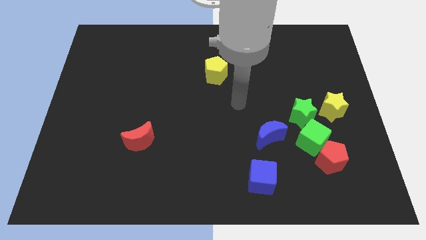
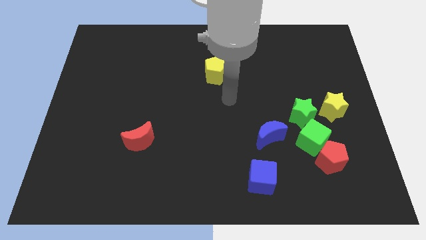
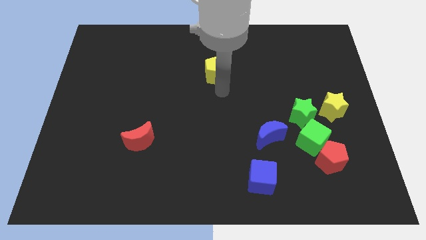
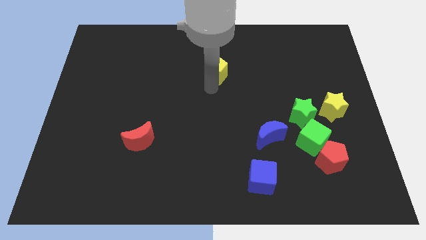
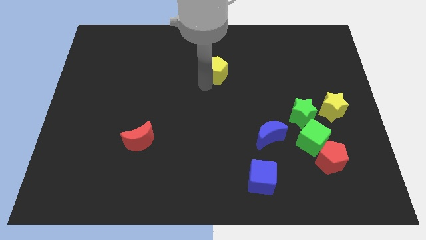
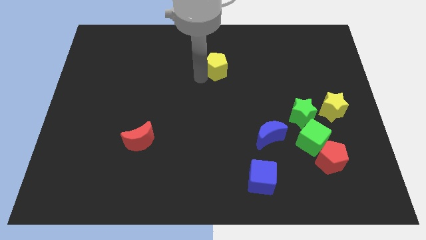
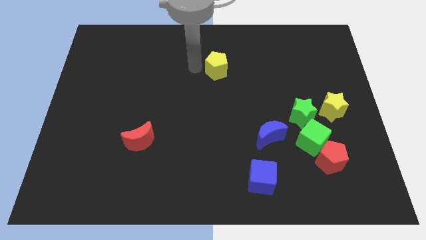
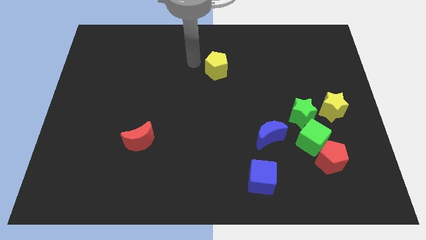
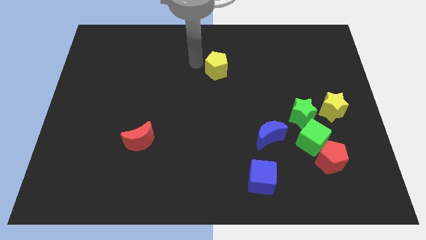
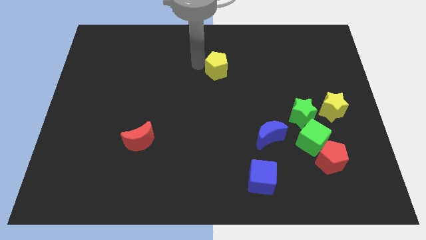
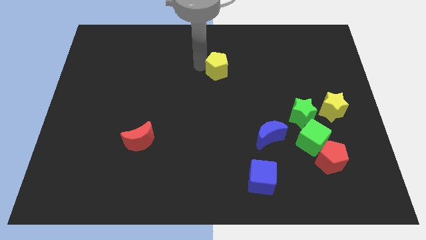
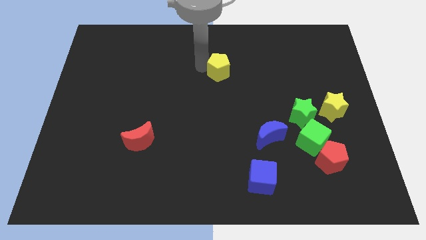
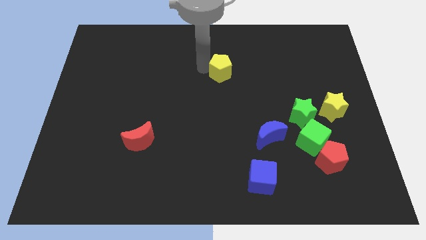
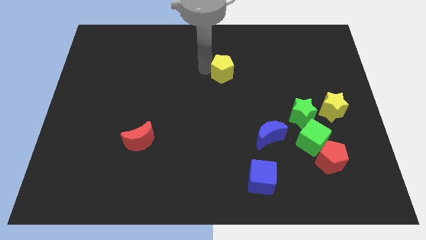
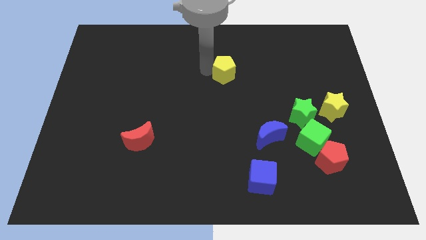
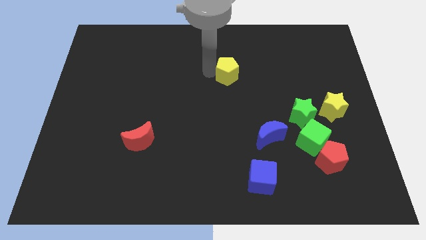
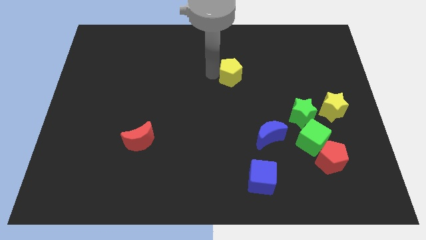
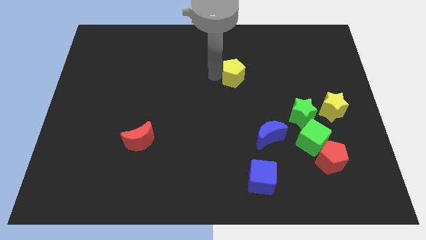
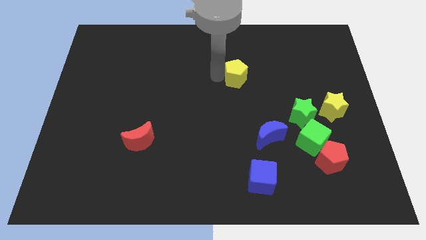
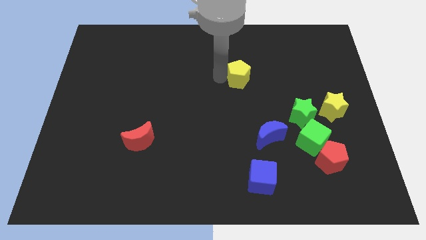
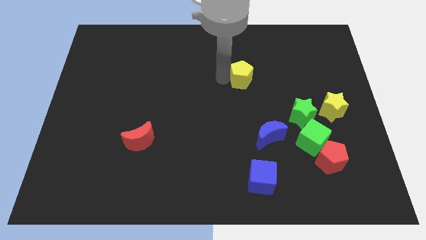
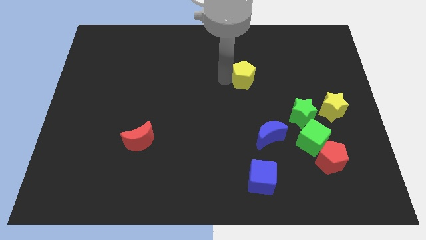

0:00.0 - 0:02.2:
push the yellow pentagon a little right

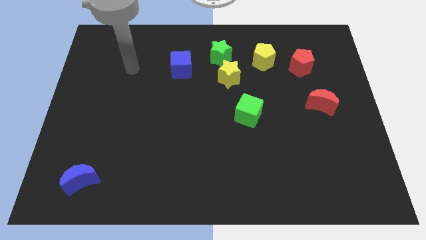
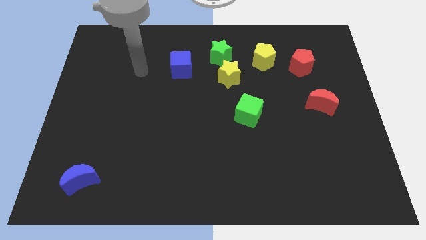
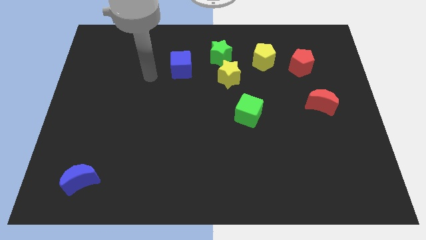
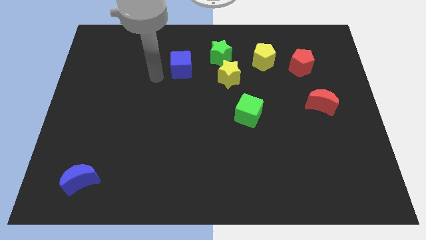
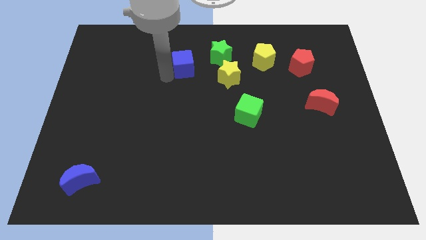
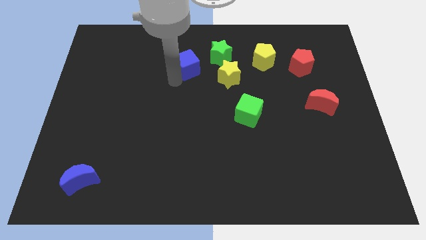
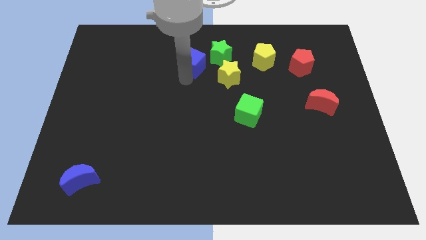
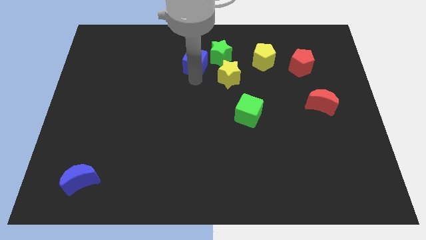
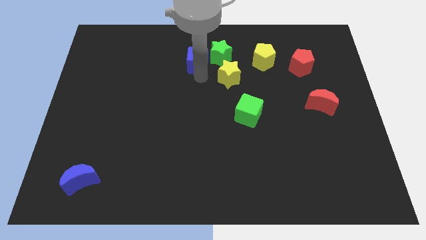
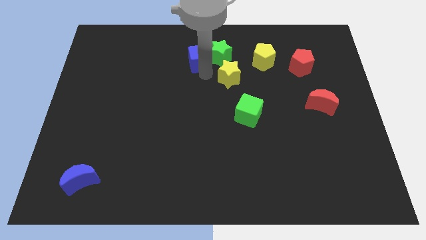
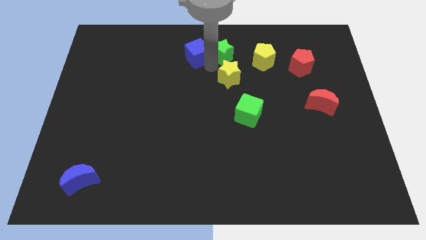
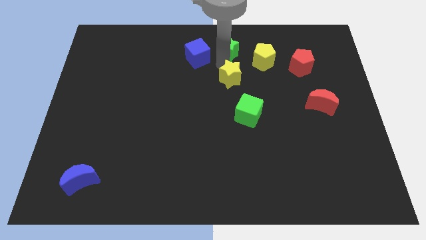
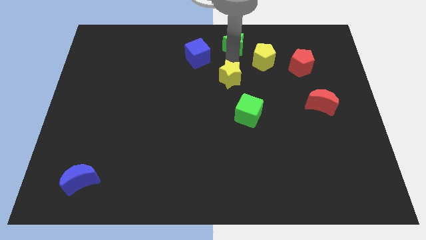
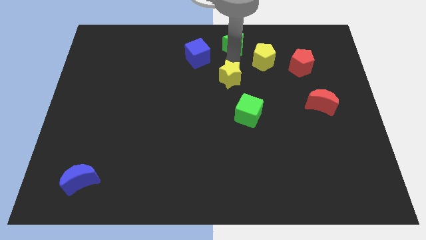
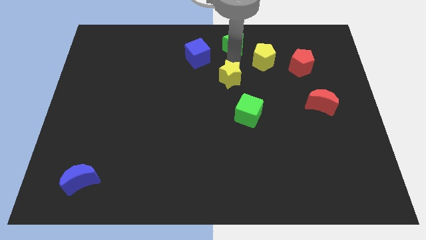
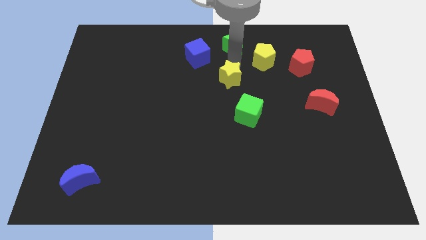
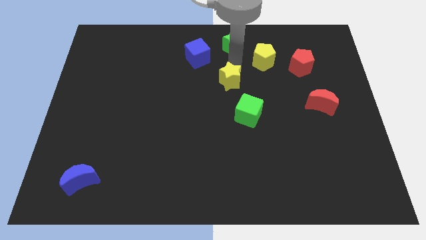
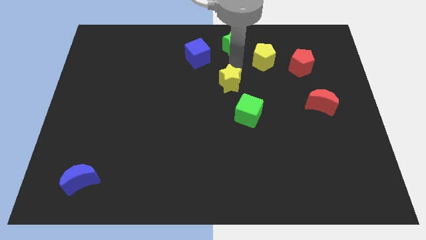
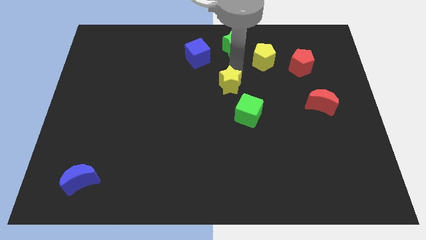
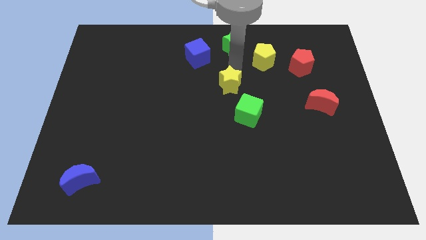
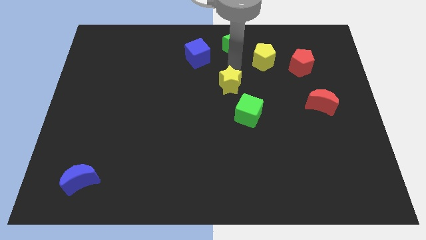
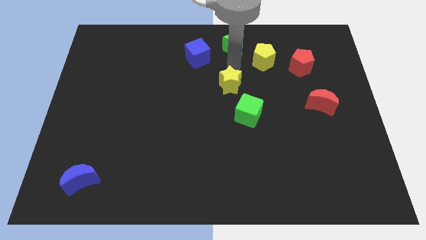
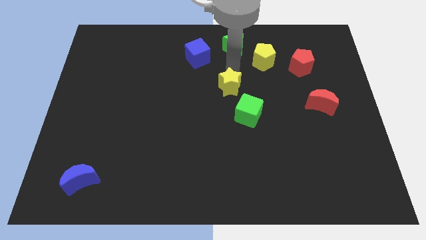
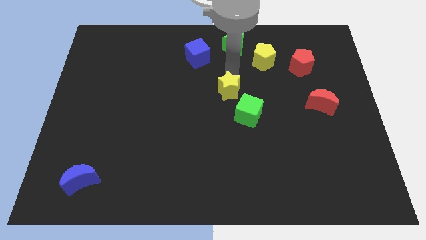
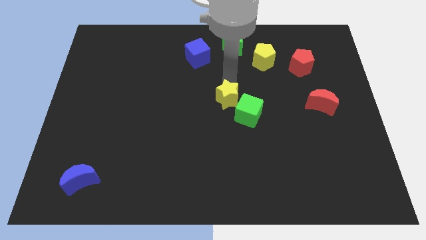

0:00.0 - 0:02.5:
slightly slide the yellow star down

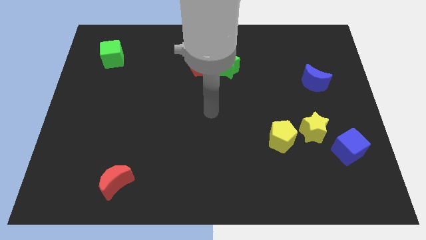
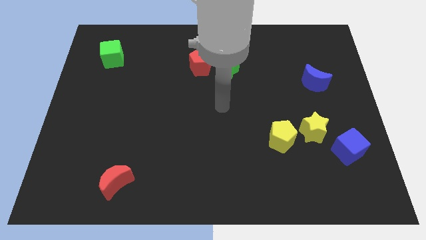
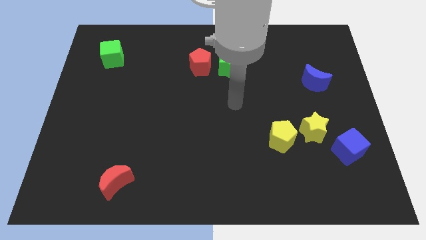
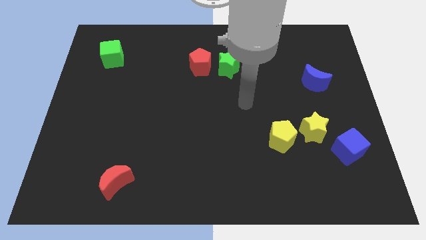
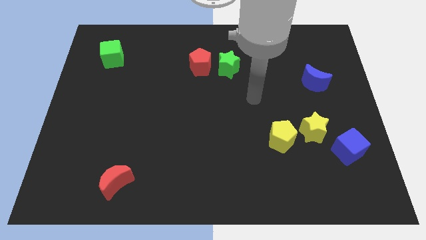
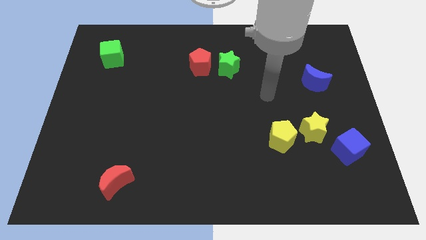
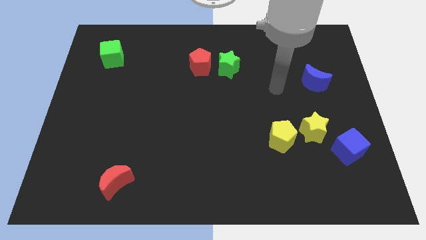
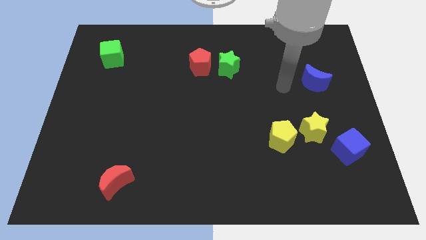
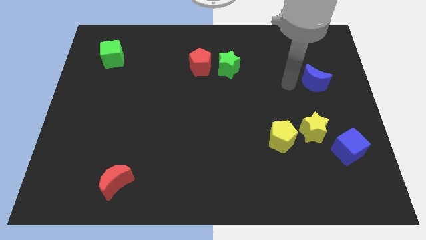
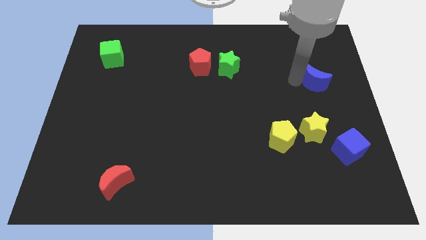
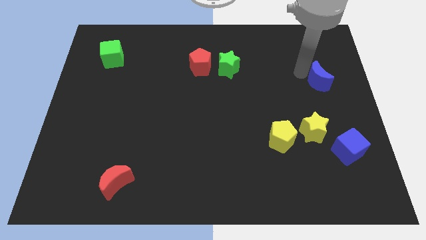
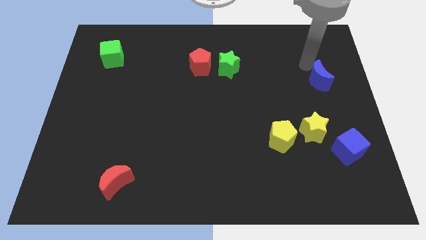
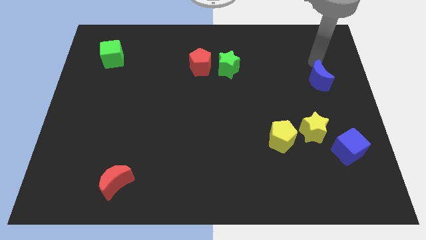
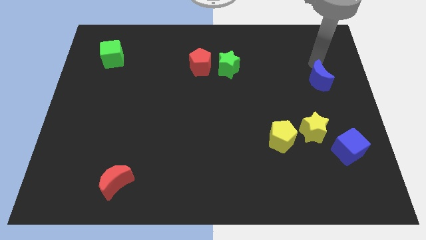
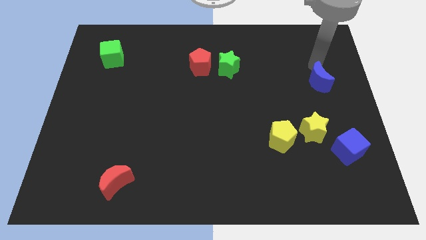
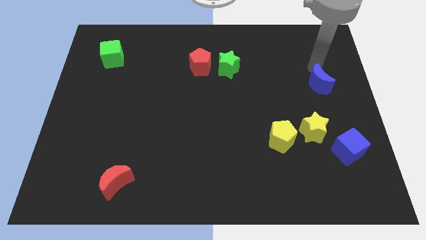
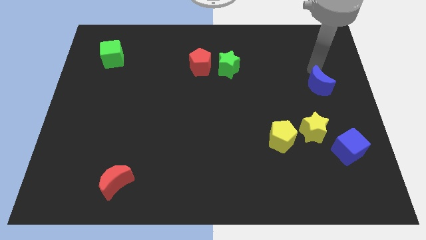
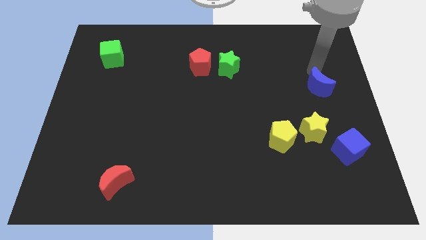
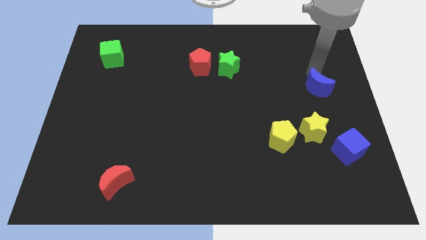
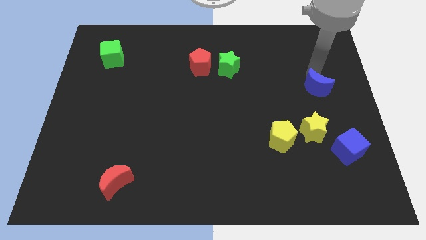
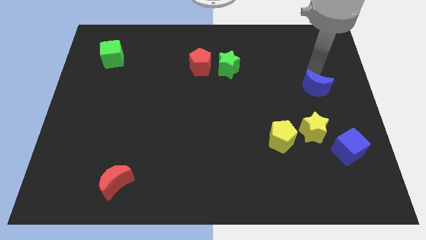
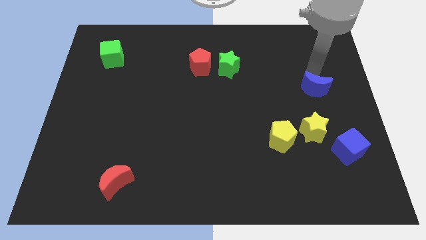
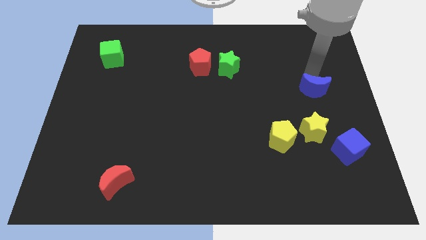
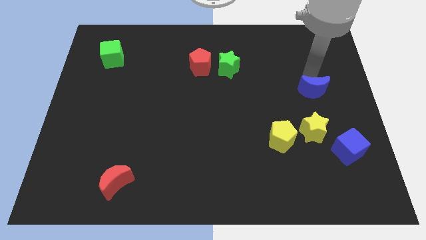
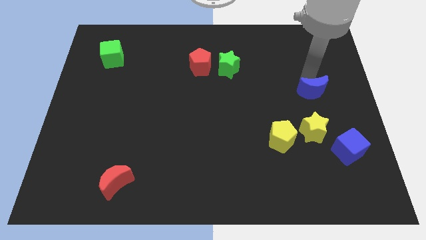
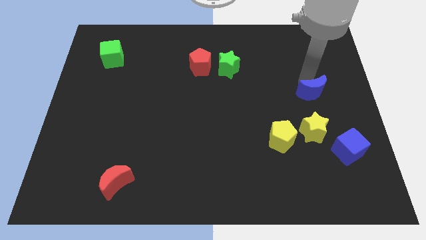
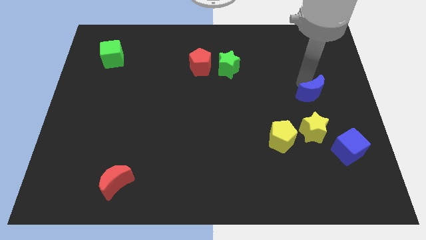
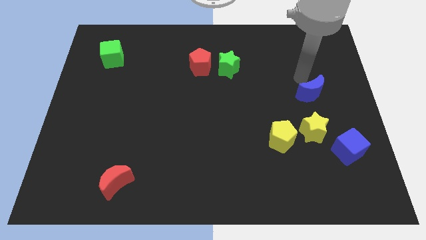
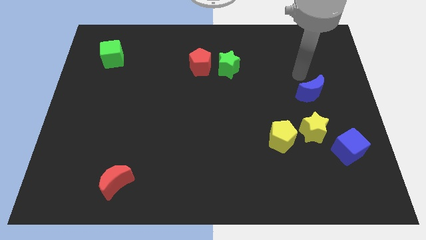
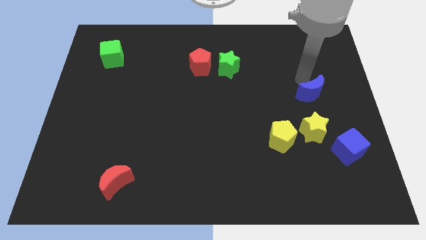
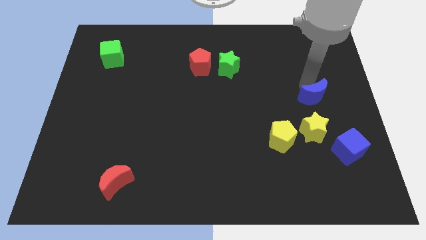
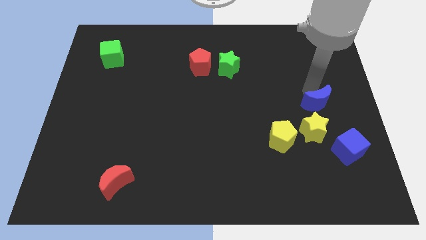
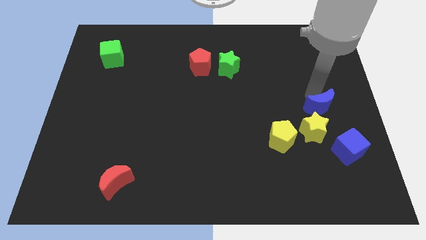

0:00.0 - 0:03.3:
move the blue moon slightly down

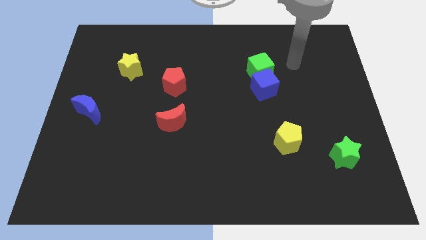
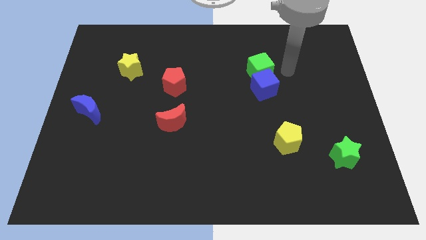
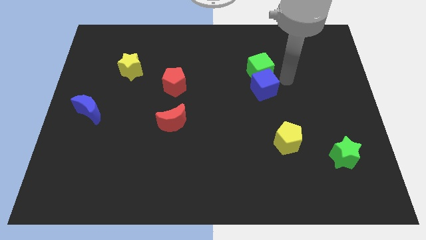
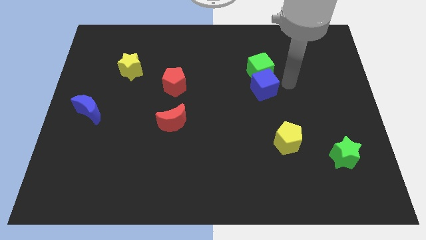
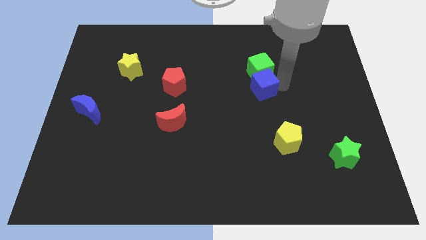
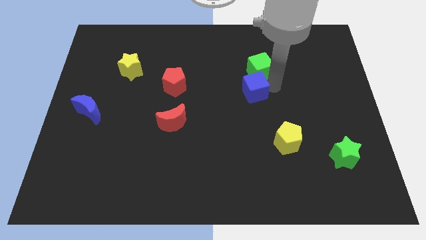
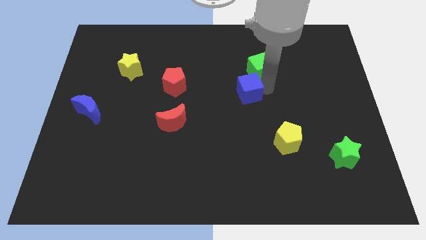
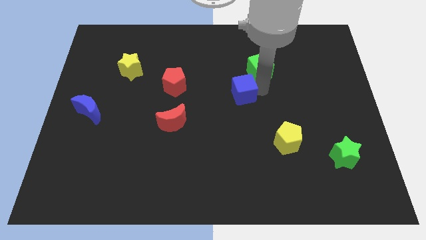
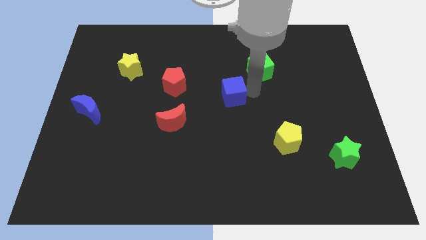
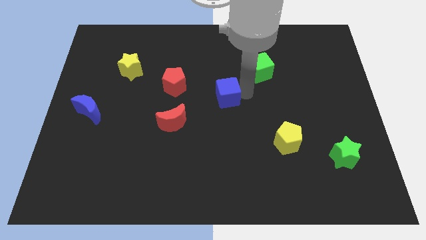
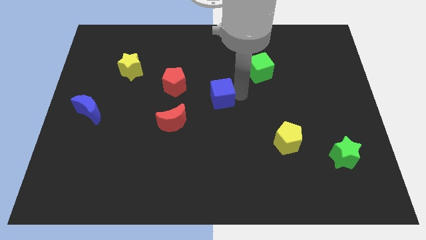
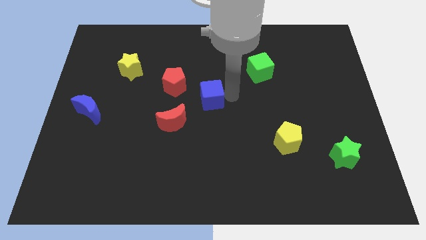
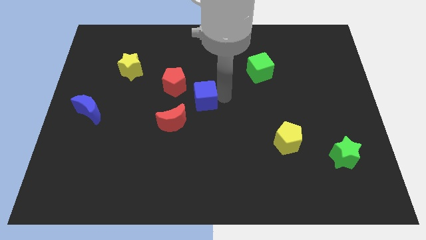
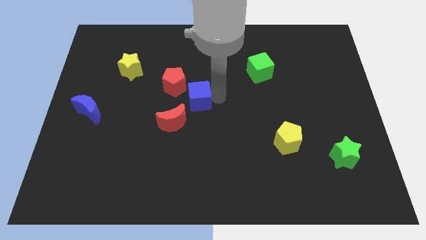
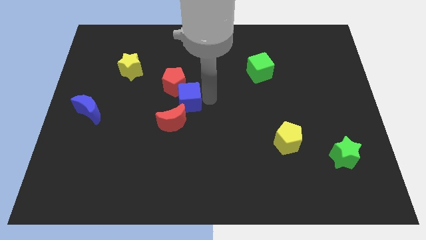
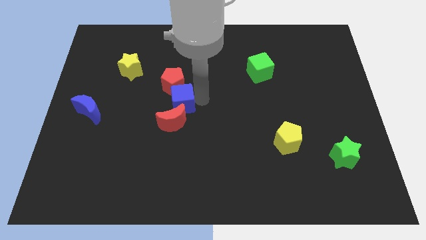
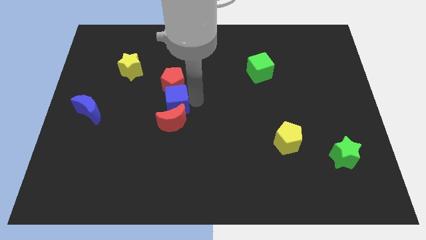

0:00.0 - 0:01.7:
move the blue cube left
